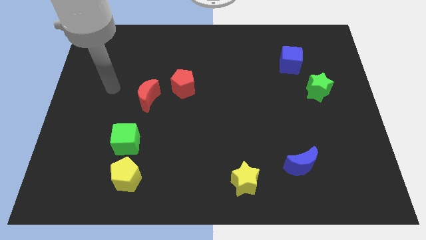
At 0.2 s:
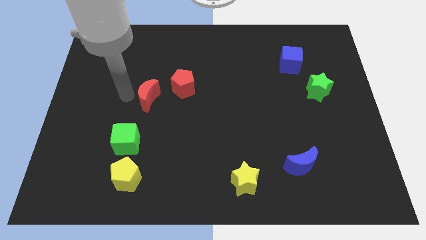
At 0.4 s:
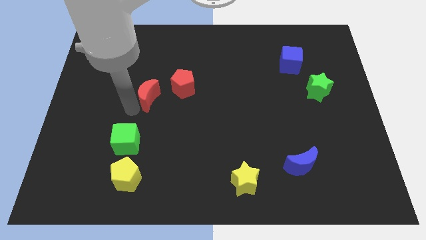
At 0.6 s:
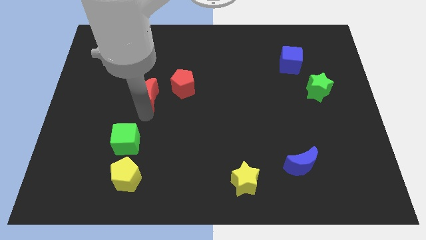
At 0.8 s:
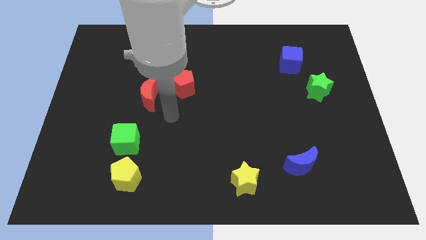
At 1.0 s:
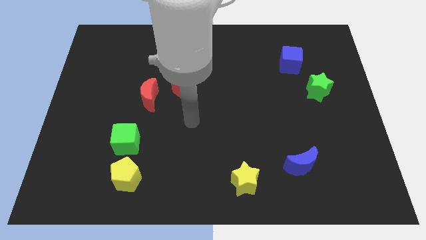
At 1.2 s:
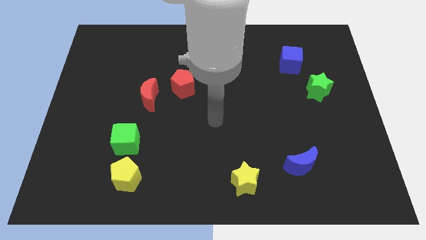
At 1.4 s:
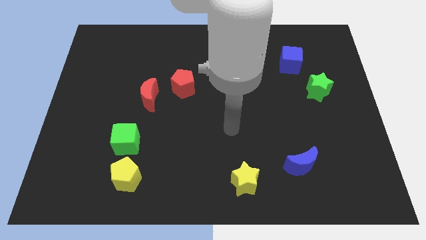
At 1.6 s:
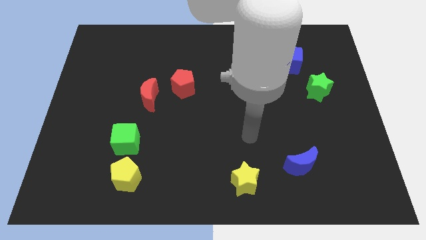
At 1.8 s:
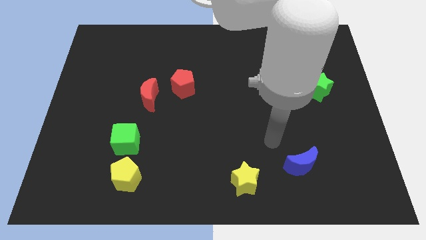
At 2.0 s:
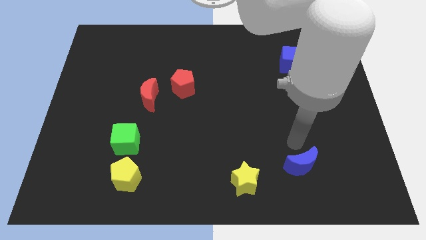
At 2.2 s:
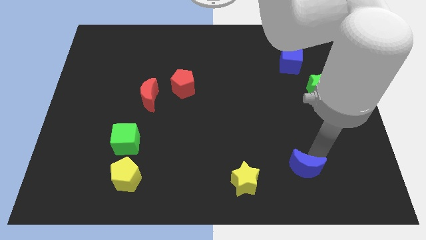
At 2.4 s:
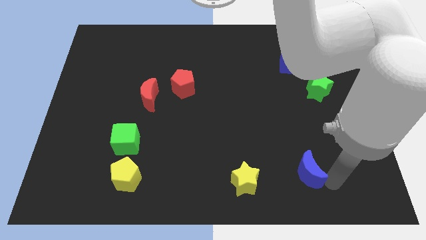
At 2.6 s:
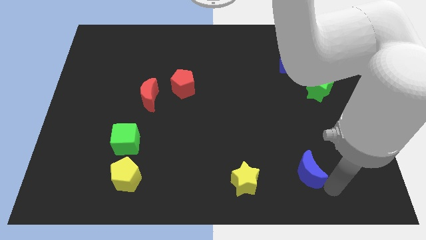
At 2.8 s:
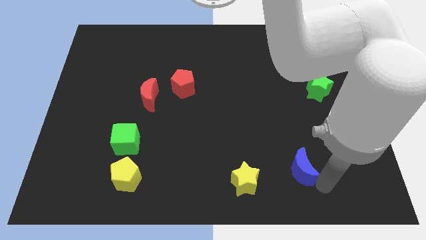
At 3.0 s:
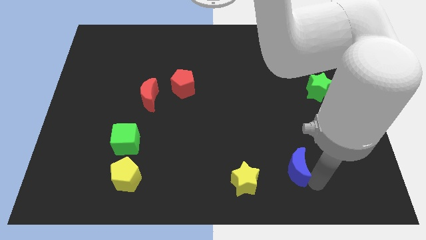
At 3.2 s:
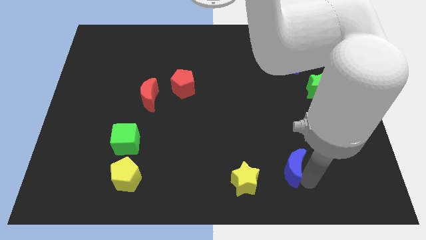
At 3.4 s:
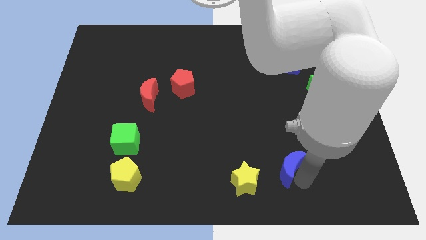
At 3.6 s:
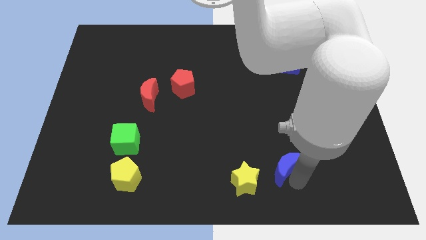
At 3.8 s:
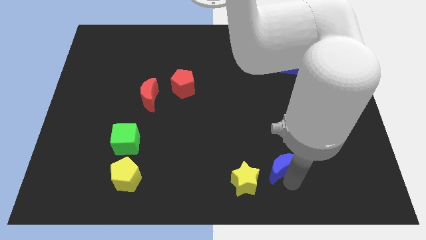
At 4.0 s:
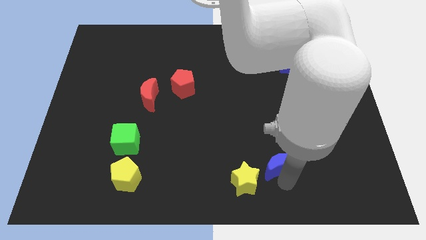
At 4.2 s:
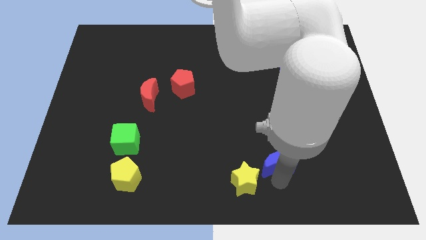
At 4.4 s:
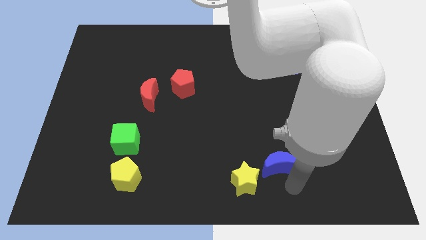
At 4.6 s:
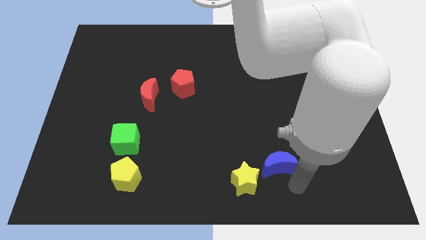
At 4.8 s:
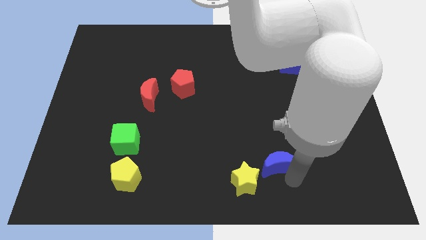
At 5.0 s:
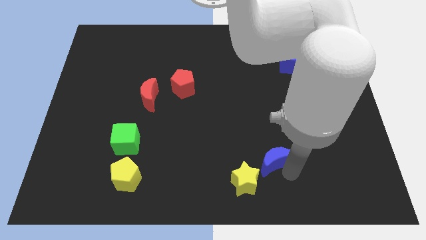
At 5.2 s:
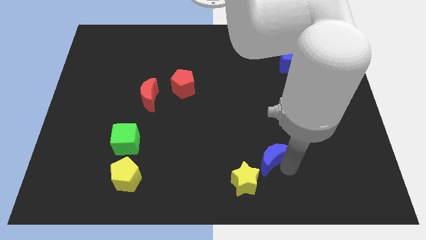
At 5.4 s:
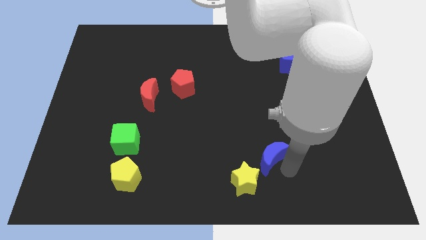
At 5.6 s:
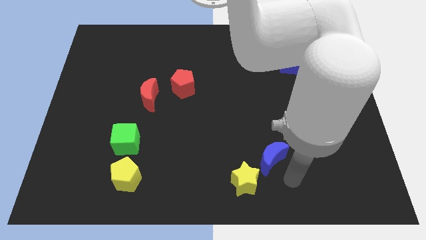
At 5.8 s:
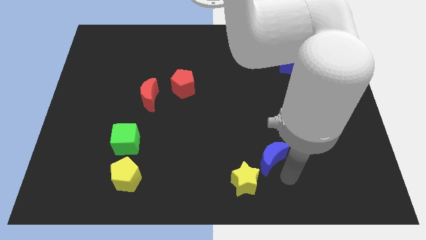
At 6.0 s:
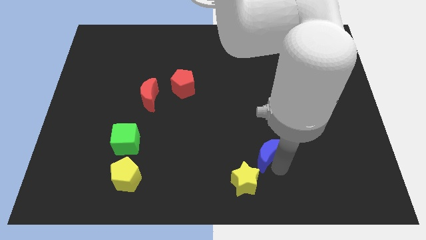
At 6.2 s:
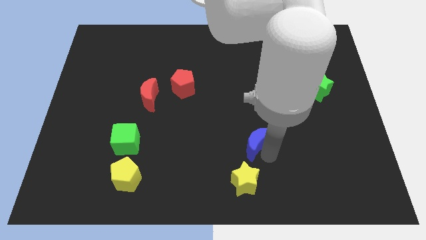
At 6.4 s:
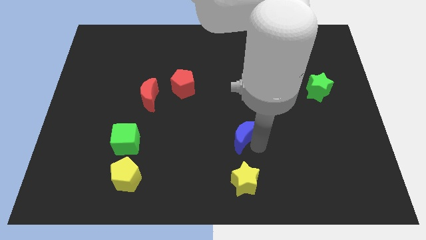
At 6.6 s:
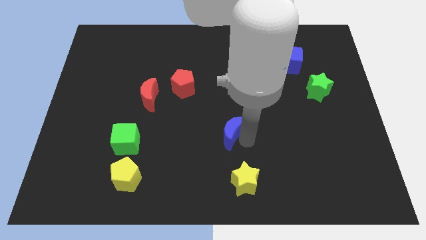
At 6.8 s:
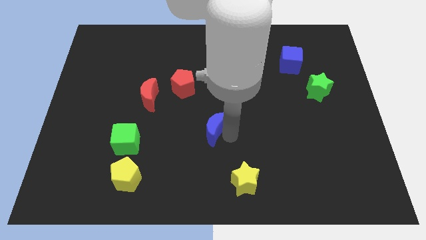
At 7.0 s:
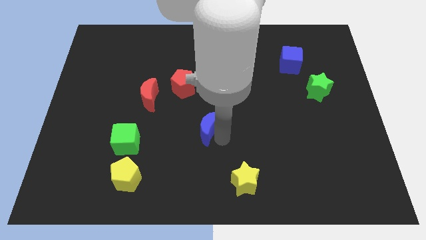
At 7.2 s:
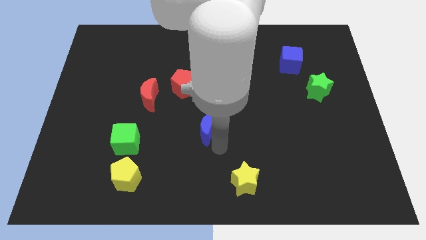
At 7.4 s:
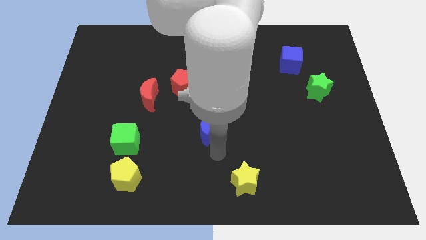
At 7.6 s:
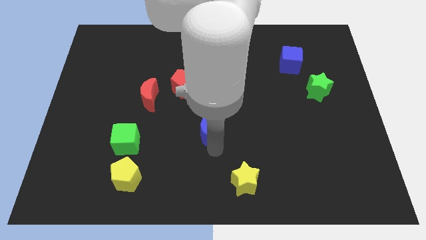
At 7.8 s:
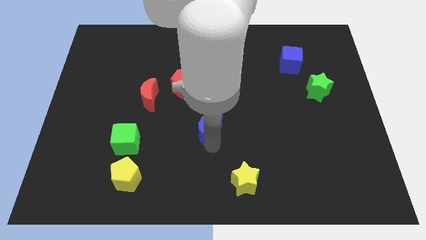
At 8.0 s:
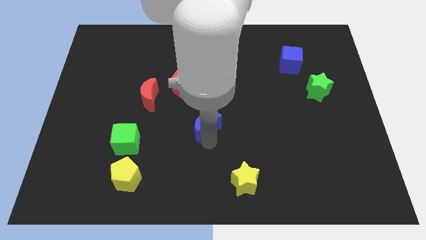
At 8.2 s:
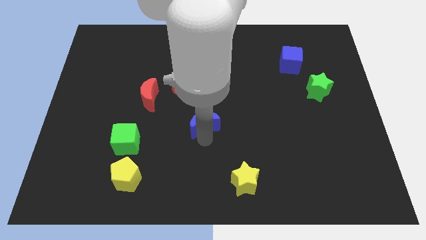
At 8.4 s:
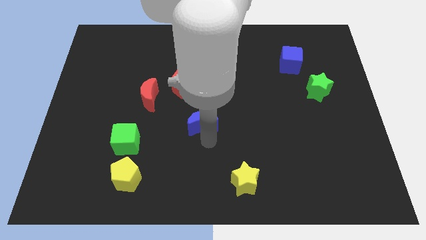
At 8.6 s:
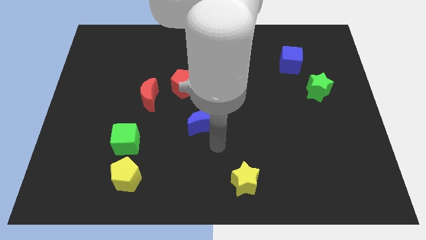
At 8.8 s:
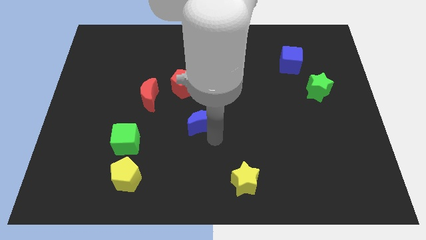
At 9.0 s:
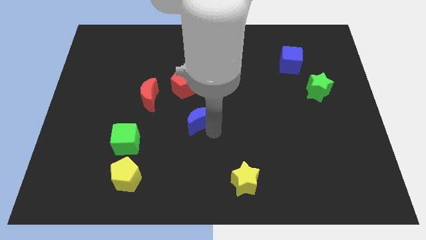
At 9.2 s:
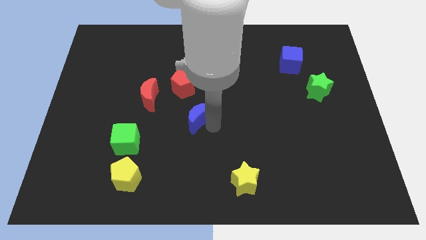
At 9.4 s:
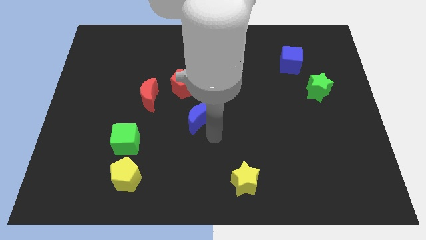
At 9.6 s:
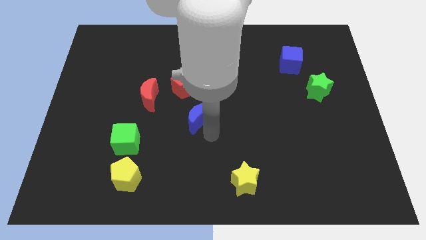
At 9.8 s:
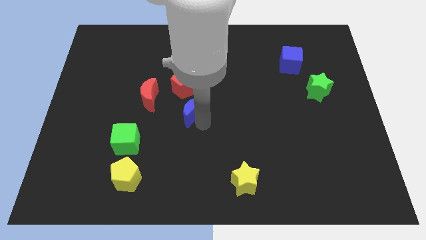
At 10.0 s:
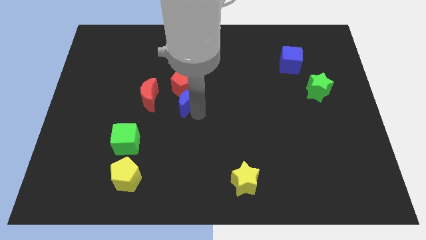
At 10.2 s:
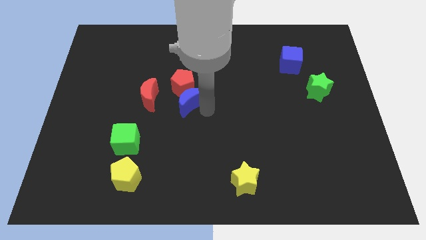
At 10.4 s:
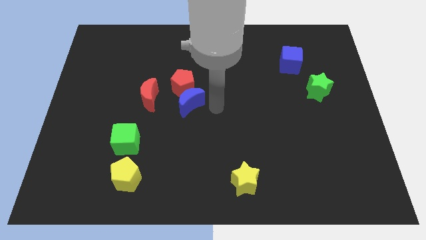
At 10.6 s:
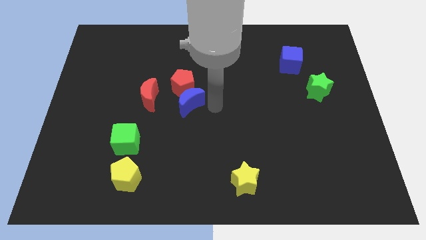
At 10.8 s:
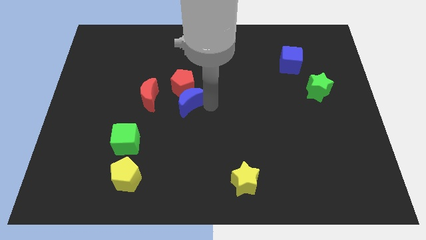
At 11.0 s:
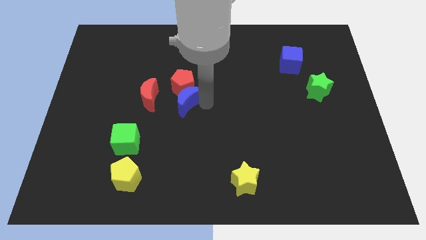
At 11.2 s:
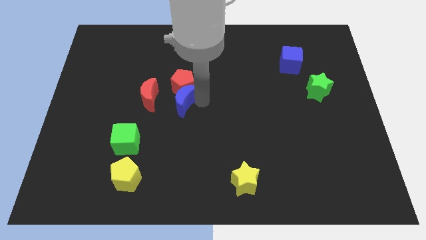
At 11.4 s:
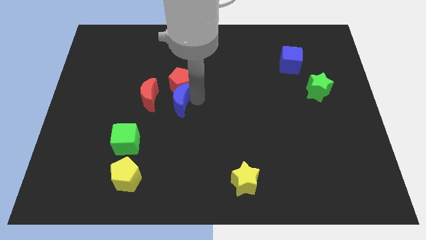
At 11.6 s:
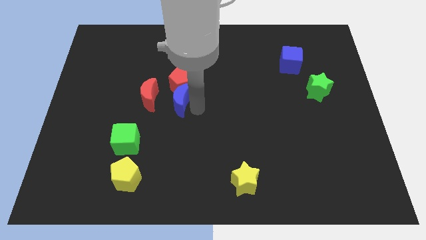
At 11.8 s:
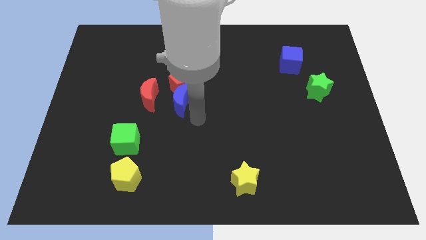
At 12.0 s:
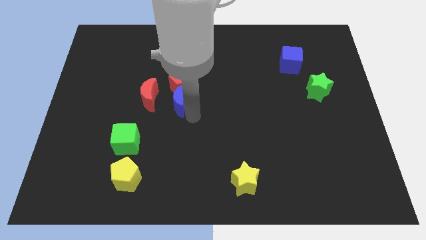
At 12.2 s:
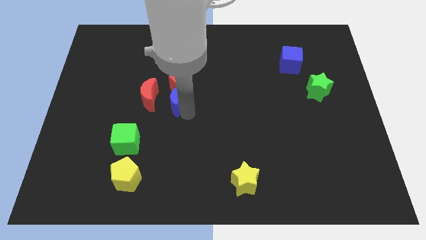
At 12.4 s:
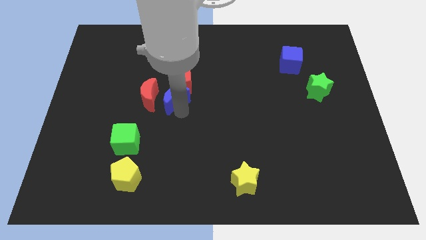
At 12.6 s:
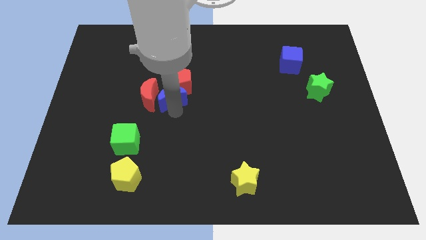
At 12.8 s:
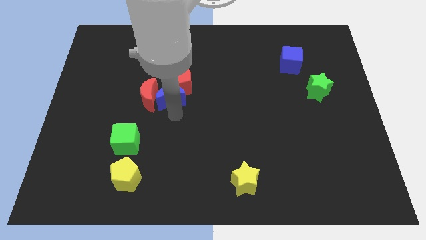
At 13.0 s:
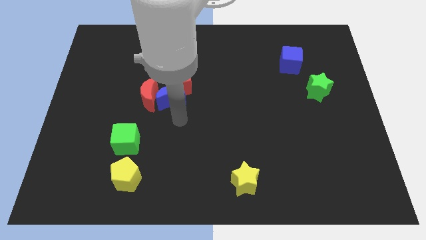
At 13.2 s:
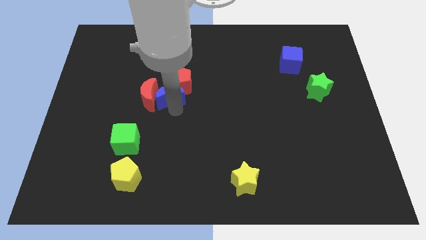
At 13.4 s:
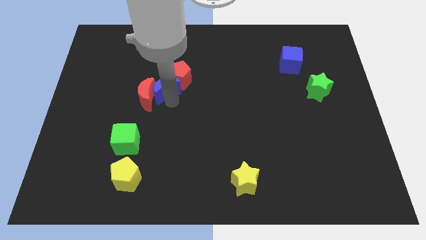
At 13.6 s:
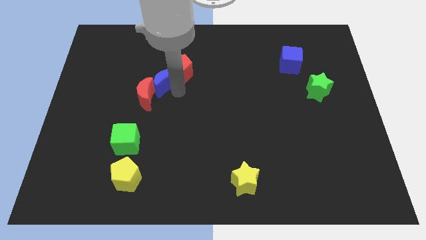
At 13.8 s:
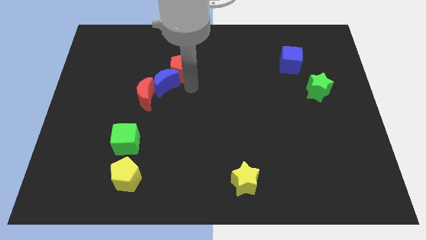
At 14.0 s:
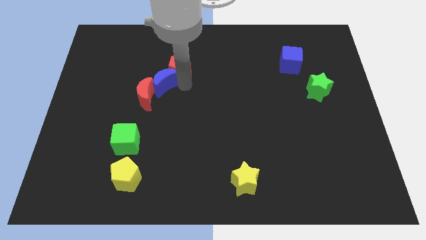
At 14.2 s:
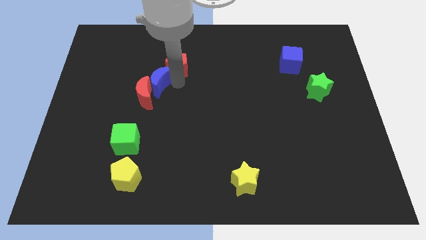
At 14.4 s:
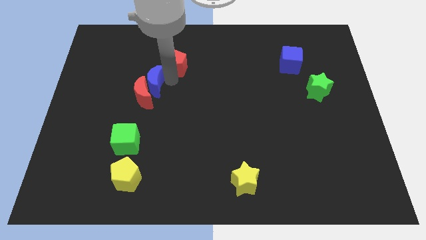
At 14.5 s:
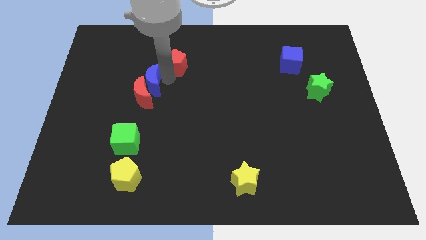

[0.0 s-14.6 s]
slide the blue moon diagonally up and to the left of the red moon

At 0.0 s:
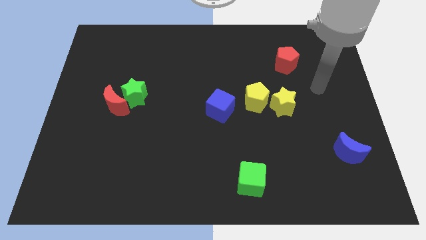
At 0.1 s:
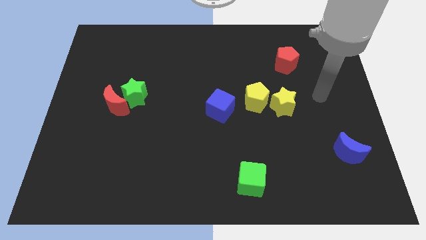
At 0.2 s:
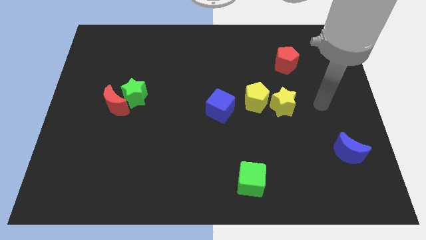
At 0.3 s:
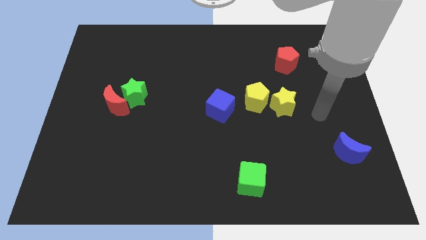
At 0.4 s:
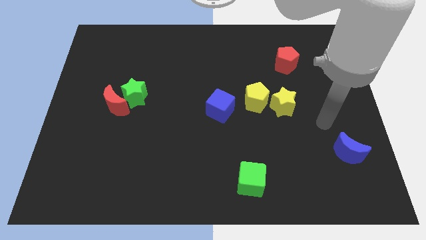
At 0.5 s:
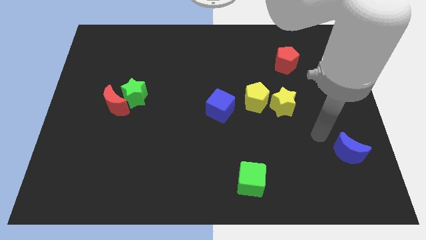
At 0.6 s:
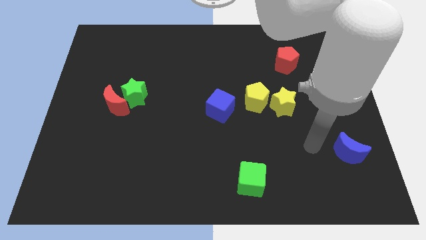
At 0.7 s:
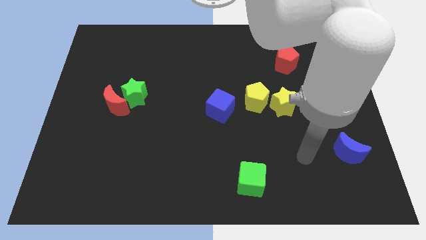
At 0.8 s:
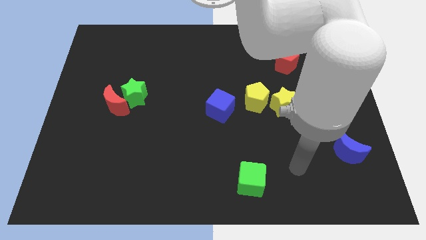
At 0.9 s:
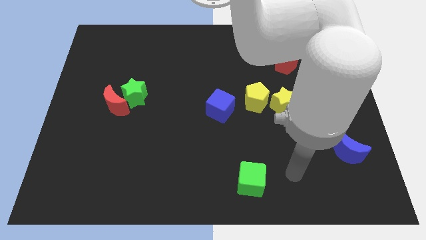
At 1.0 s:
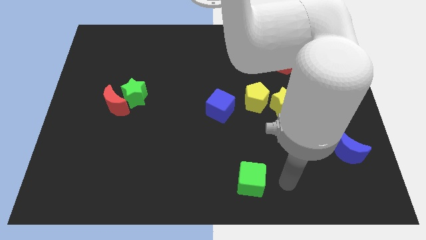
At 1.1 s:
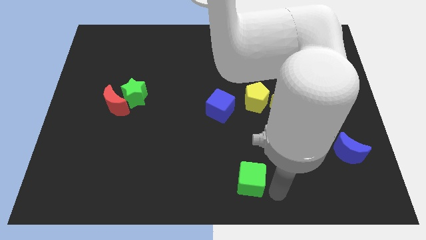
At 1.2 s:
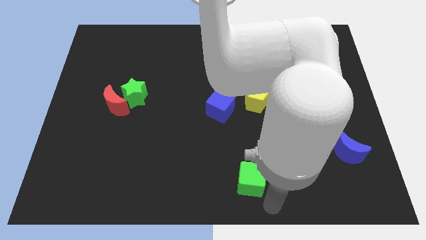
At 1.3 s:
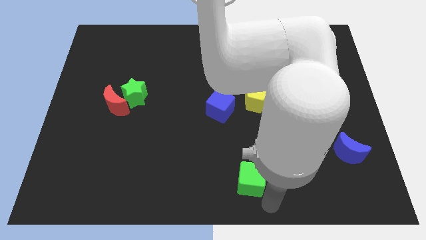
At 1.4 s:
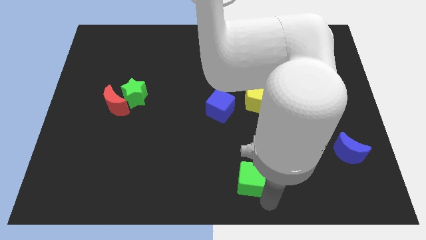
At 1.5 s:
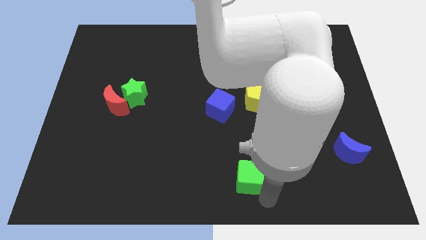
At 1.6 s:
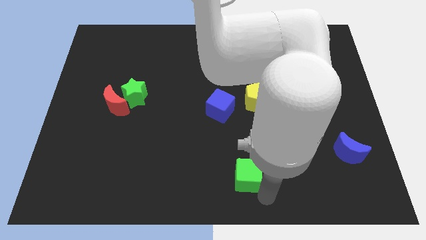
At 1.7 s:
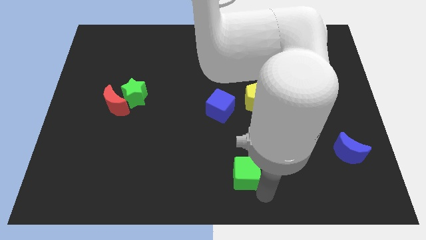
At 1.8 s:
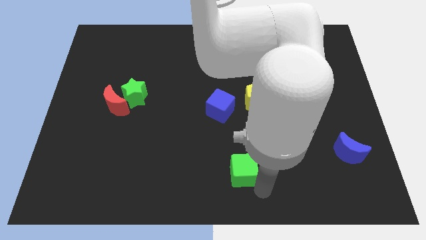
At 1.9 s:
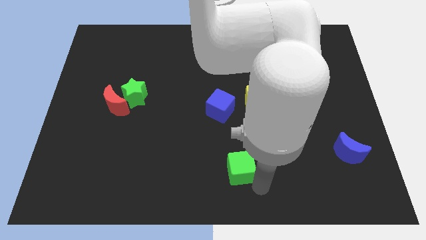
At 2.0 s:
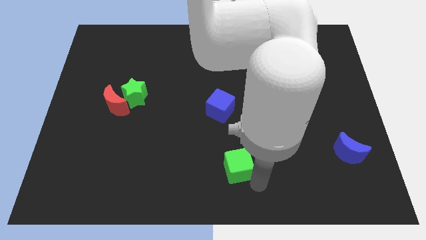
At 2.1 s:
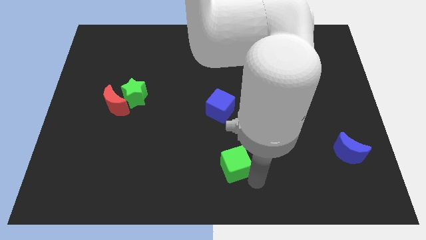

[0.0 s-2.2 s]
slide the green cube below the blue cube
